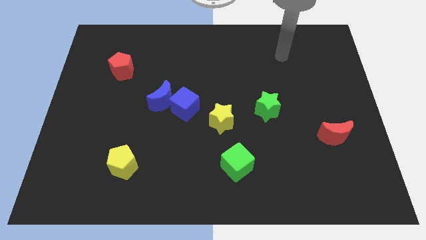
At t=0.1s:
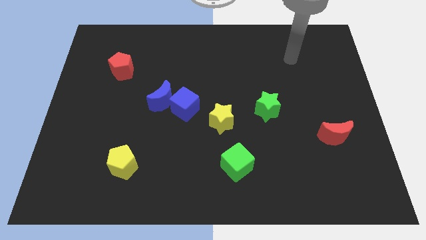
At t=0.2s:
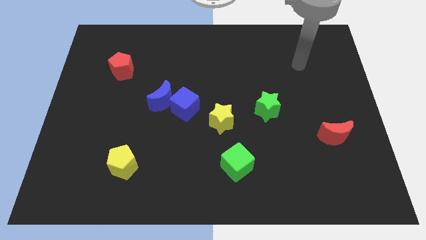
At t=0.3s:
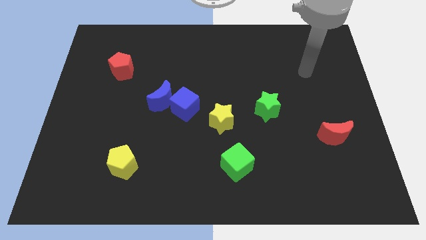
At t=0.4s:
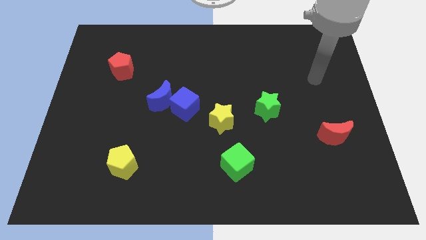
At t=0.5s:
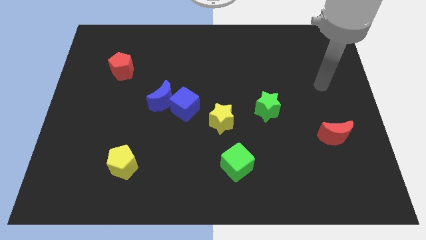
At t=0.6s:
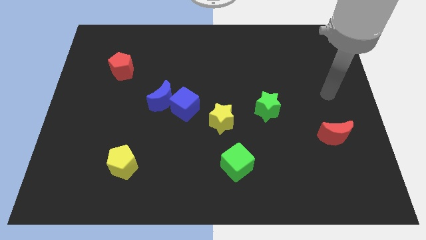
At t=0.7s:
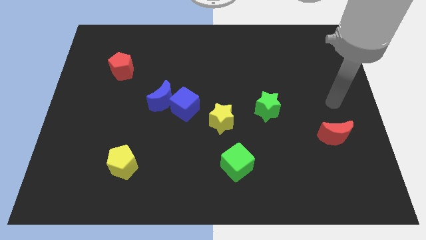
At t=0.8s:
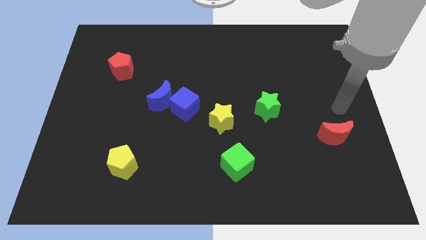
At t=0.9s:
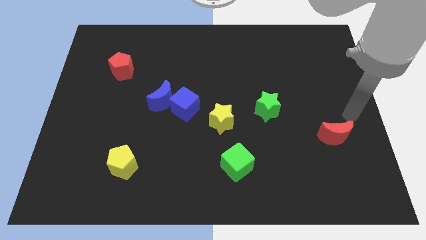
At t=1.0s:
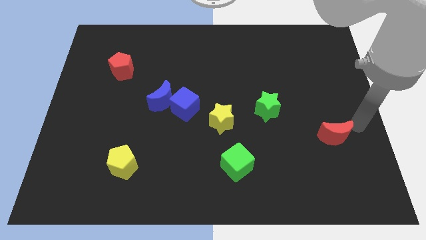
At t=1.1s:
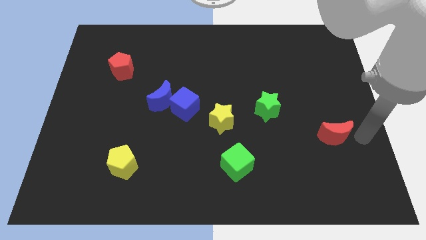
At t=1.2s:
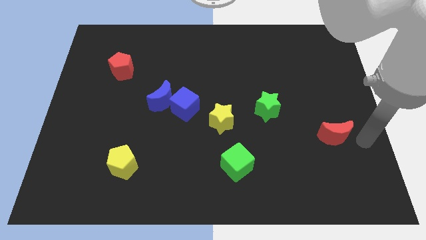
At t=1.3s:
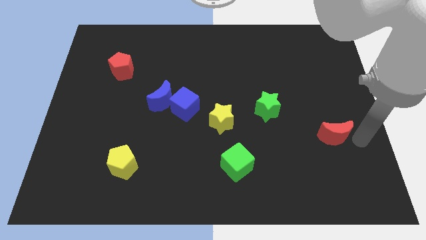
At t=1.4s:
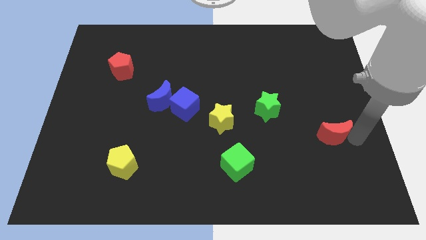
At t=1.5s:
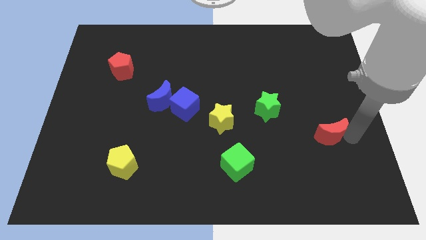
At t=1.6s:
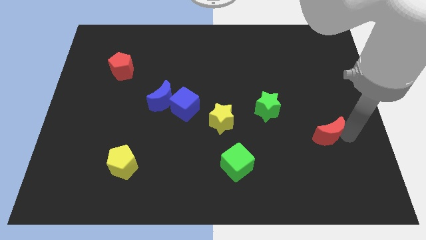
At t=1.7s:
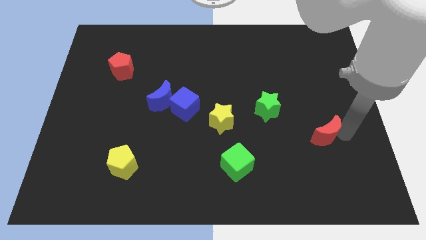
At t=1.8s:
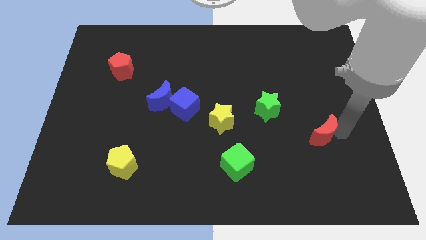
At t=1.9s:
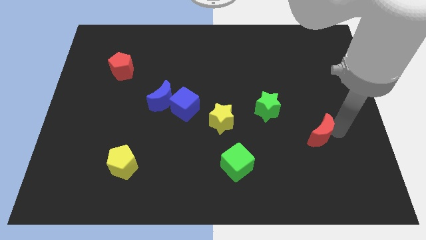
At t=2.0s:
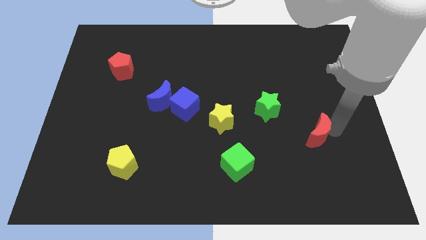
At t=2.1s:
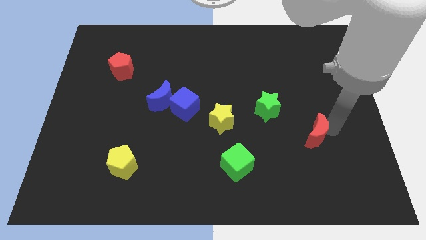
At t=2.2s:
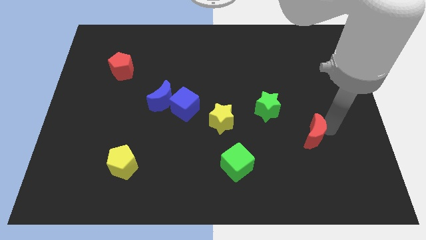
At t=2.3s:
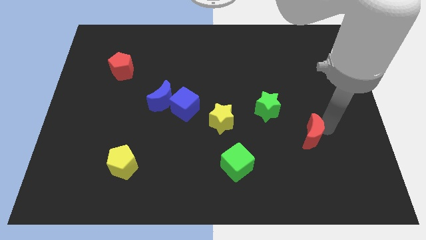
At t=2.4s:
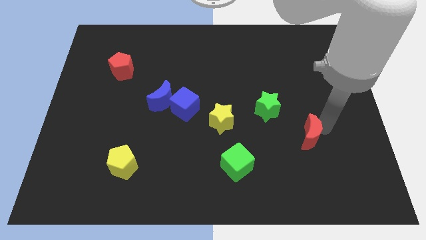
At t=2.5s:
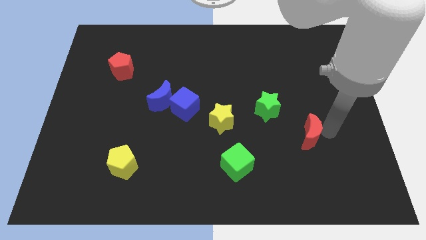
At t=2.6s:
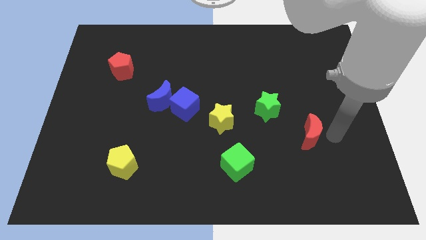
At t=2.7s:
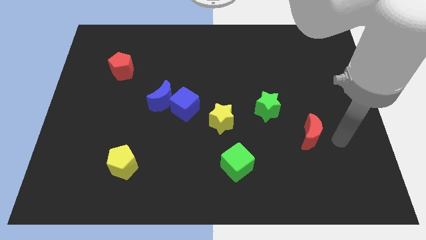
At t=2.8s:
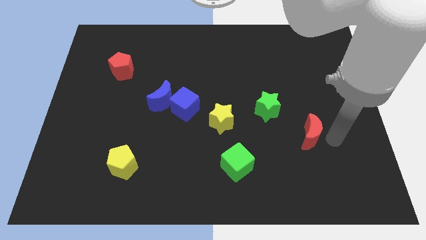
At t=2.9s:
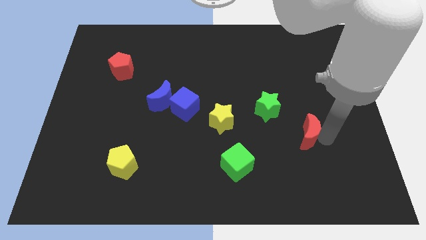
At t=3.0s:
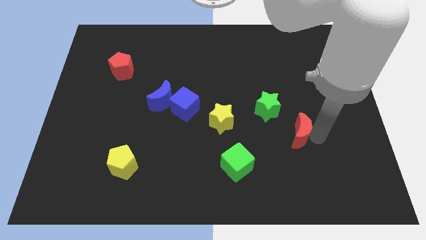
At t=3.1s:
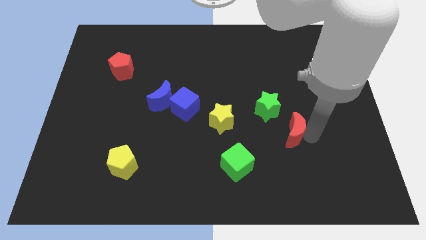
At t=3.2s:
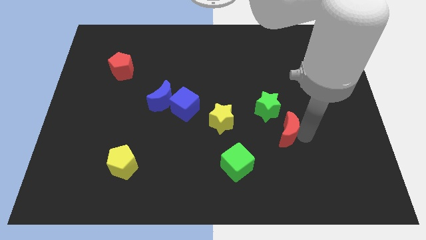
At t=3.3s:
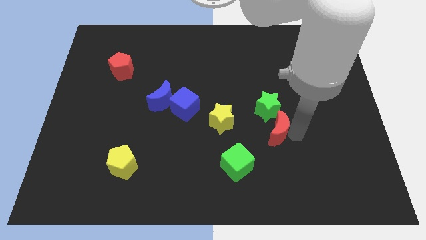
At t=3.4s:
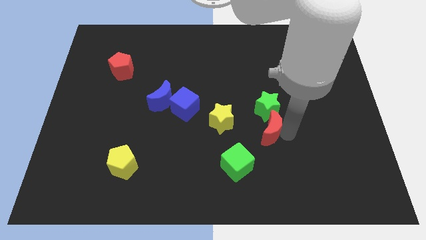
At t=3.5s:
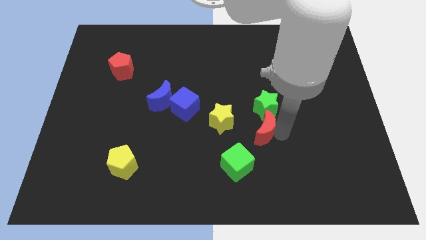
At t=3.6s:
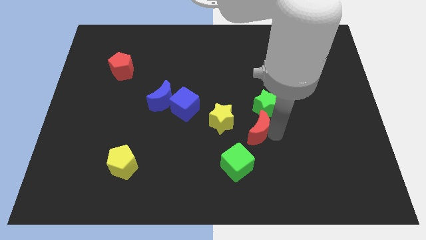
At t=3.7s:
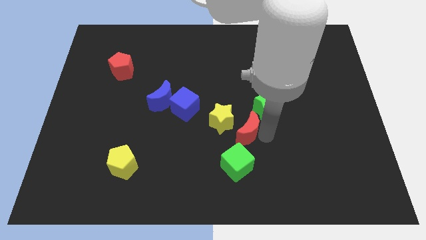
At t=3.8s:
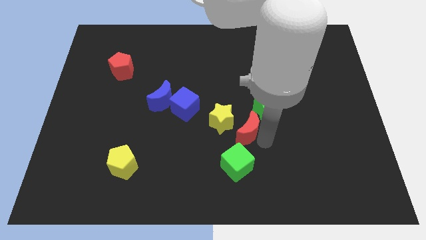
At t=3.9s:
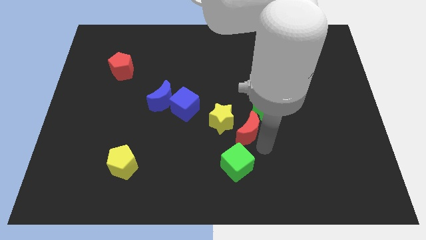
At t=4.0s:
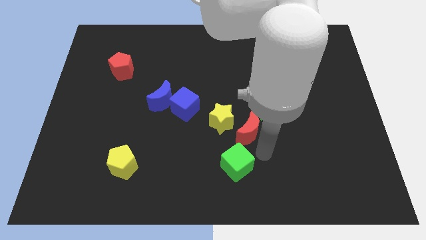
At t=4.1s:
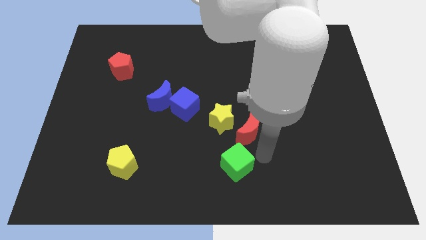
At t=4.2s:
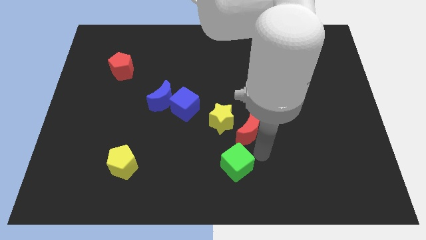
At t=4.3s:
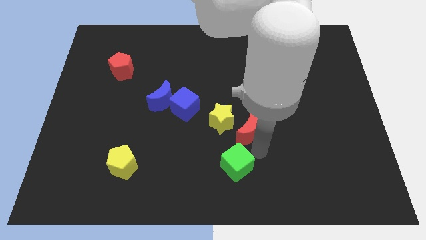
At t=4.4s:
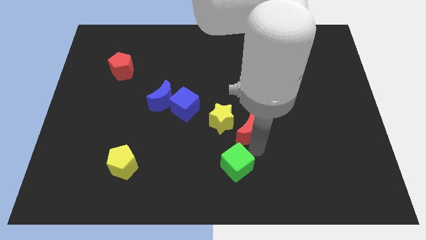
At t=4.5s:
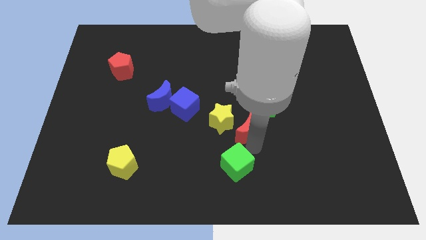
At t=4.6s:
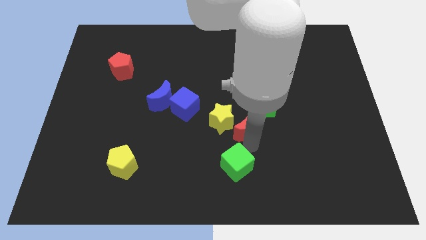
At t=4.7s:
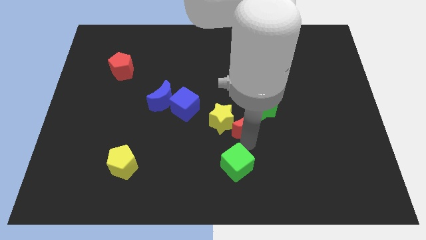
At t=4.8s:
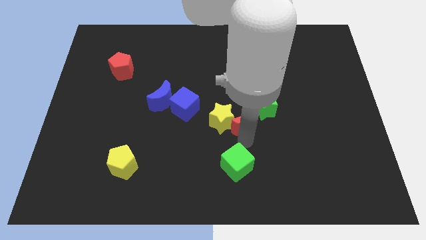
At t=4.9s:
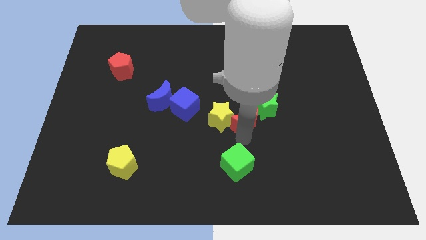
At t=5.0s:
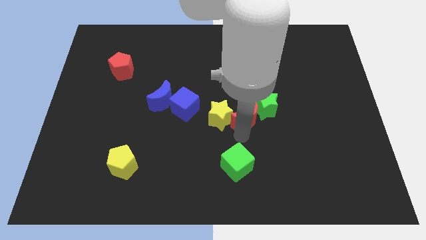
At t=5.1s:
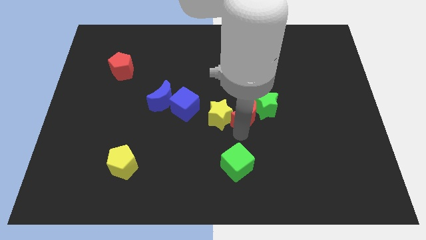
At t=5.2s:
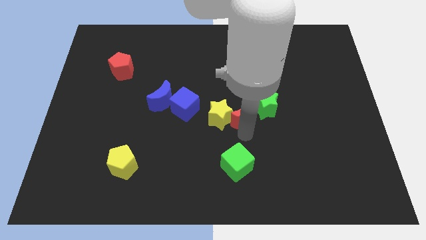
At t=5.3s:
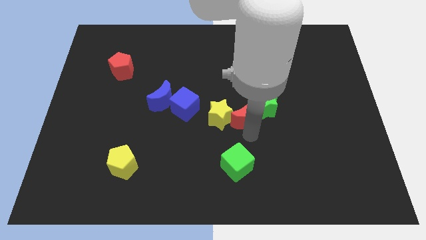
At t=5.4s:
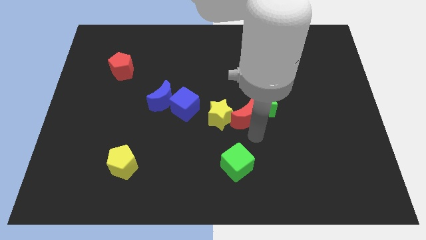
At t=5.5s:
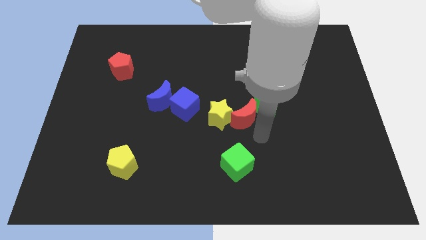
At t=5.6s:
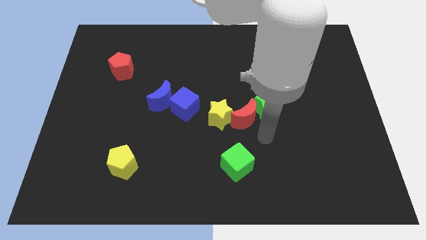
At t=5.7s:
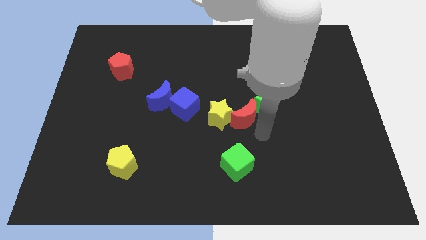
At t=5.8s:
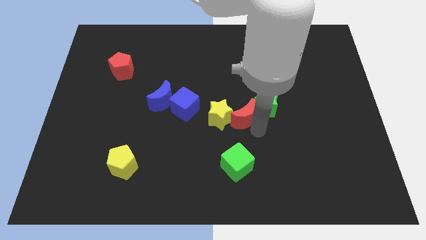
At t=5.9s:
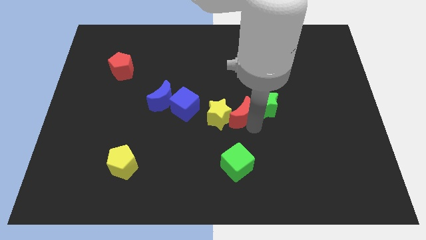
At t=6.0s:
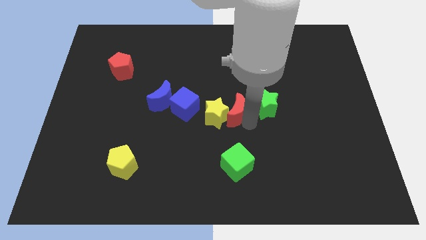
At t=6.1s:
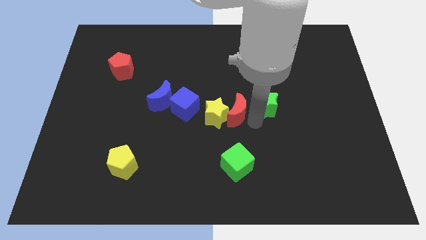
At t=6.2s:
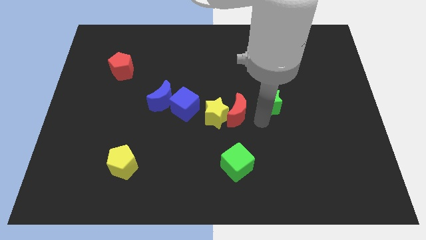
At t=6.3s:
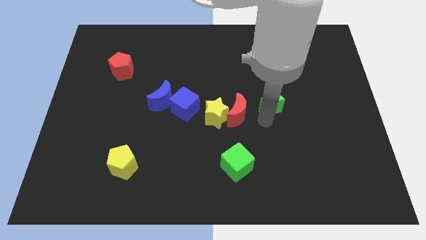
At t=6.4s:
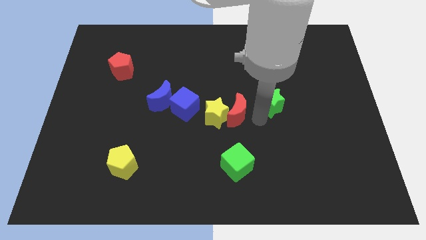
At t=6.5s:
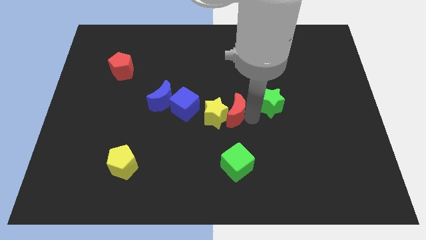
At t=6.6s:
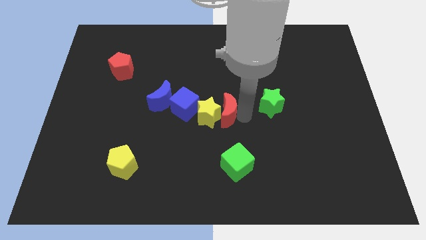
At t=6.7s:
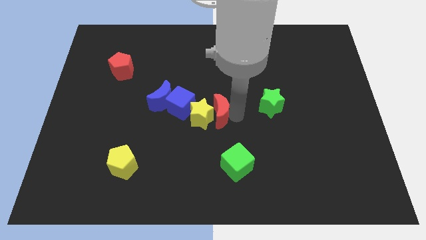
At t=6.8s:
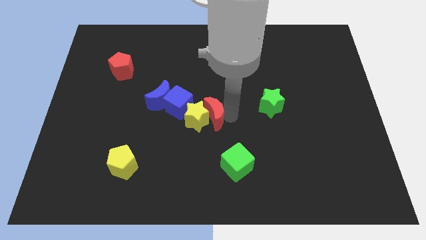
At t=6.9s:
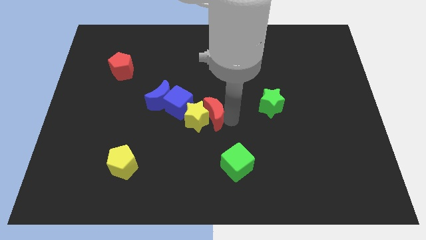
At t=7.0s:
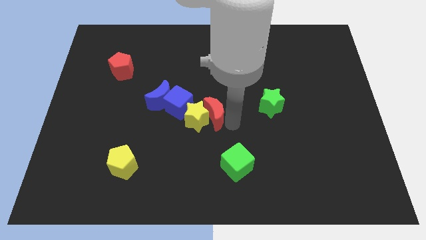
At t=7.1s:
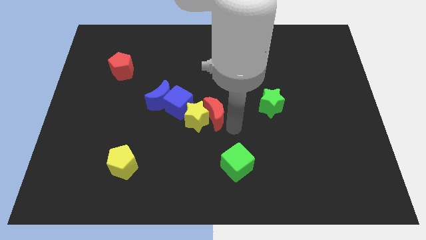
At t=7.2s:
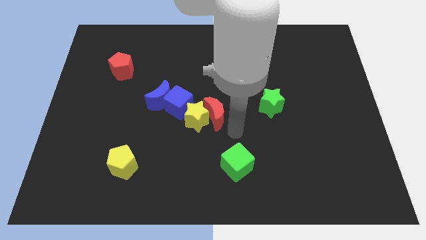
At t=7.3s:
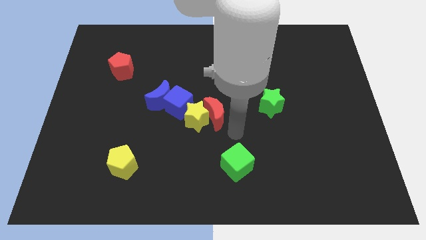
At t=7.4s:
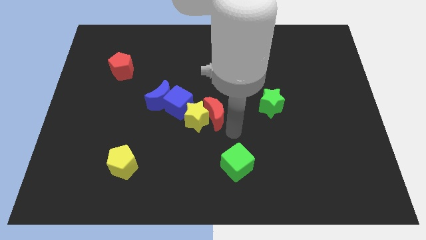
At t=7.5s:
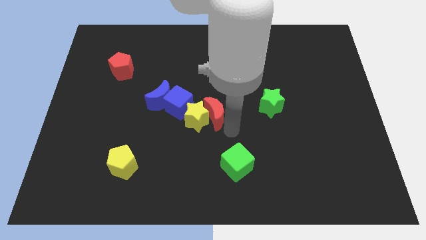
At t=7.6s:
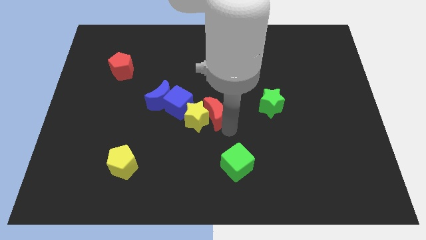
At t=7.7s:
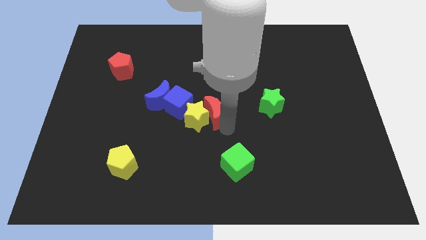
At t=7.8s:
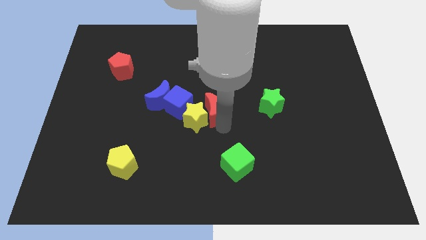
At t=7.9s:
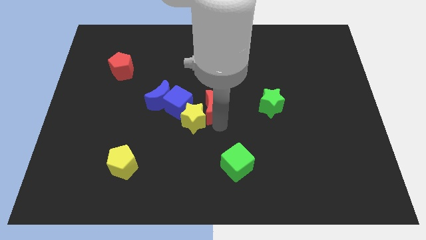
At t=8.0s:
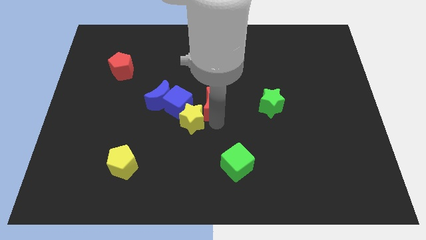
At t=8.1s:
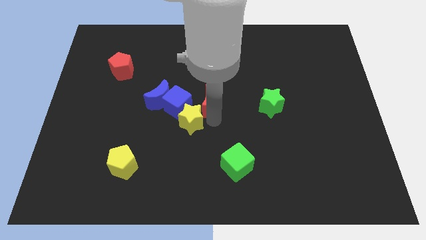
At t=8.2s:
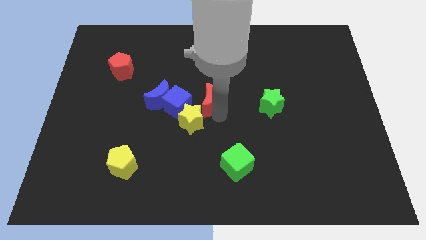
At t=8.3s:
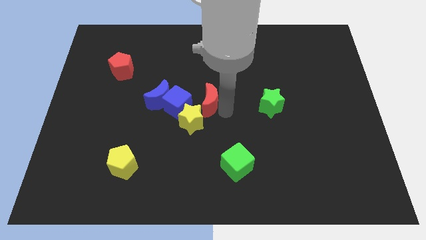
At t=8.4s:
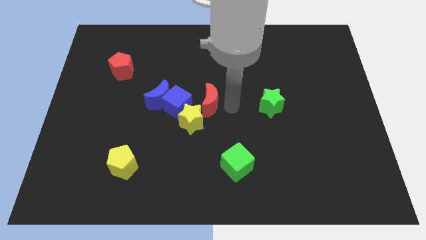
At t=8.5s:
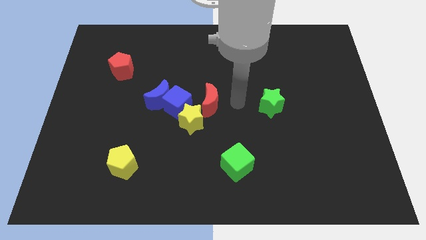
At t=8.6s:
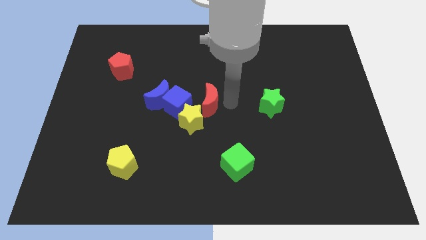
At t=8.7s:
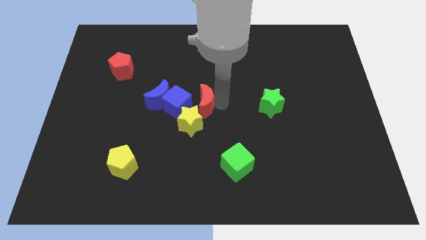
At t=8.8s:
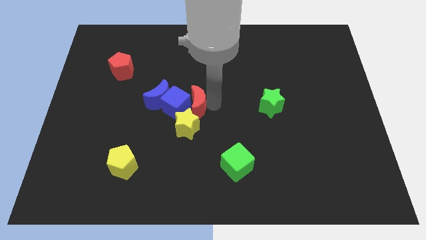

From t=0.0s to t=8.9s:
slide the red moon next to the blue cube
